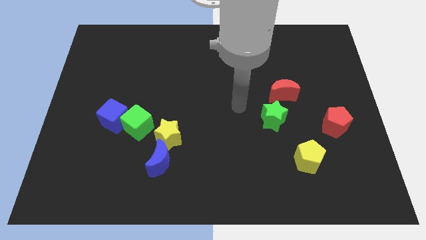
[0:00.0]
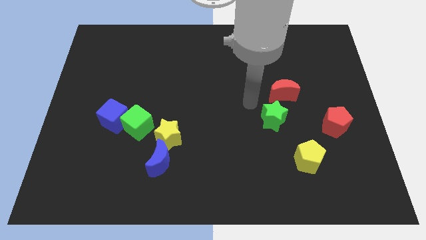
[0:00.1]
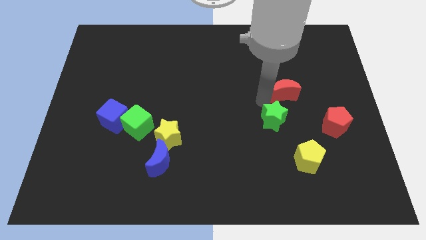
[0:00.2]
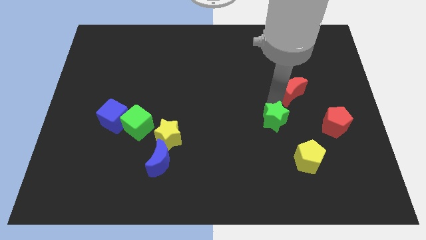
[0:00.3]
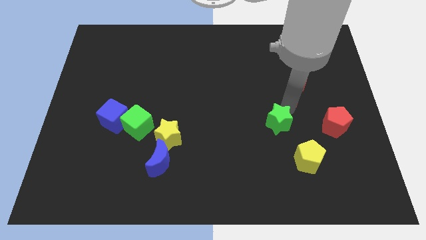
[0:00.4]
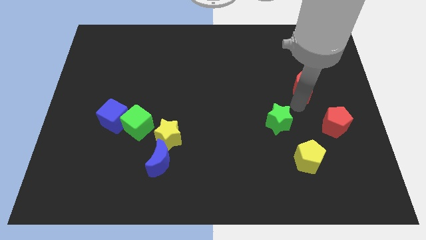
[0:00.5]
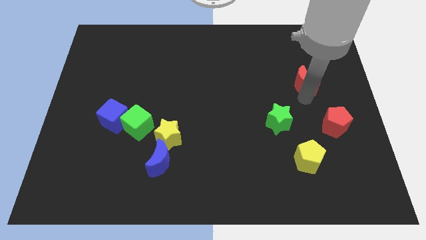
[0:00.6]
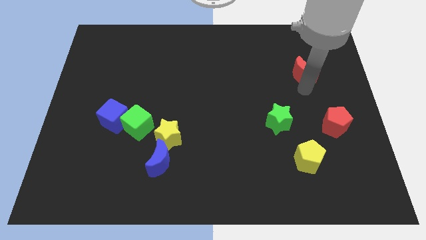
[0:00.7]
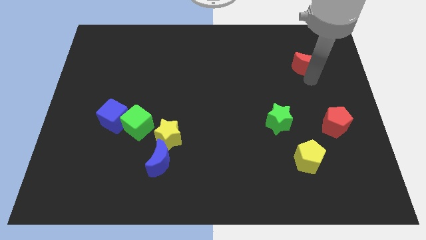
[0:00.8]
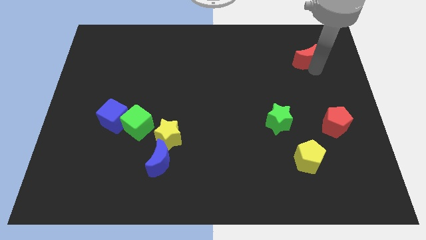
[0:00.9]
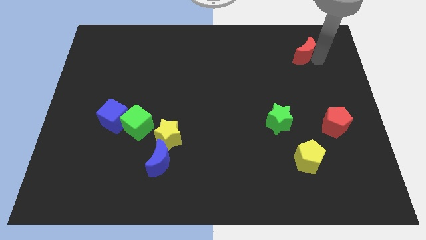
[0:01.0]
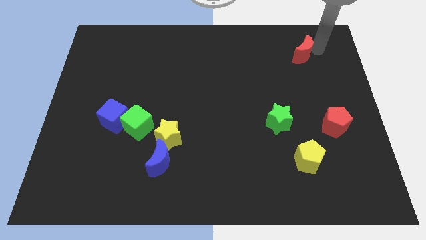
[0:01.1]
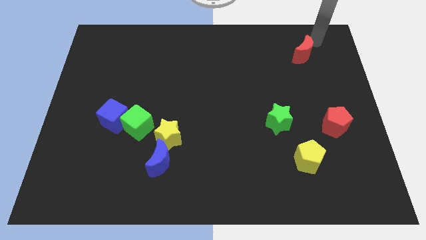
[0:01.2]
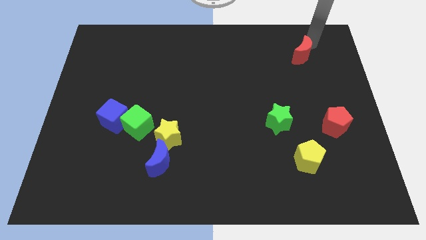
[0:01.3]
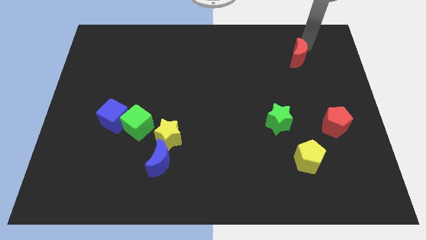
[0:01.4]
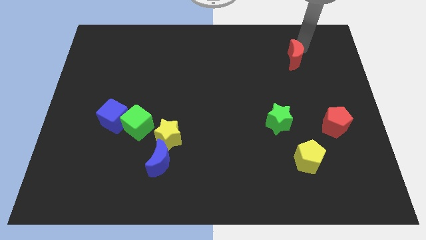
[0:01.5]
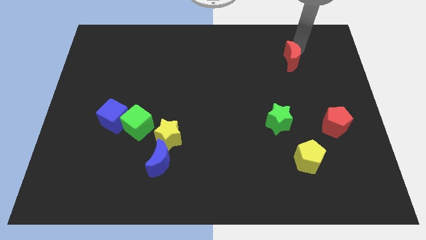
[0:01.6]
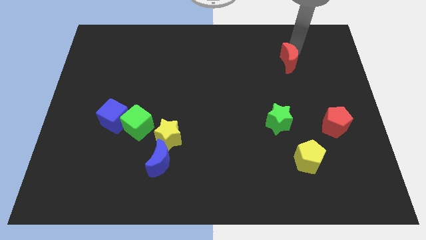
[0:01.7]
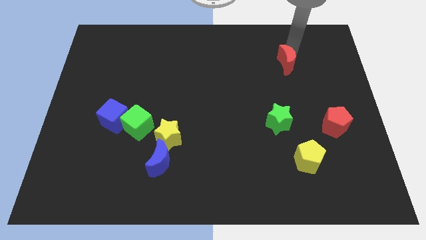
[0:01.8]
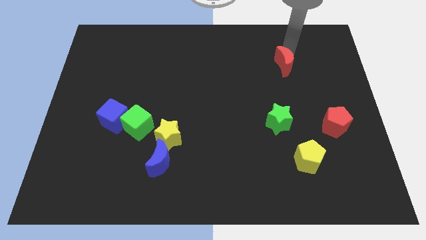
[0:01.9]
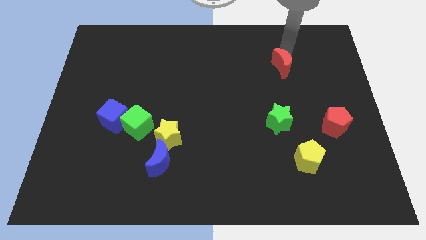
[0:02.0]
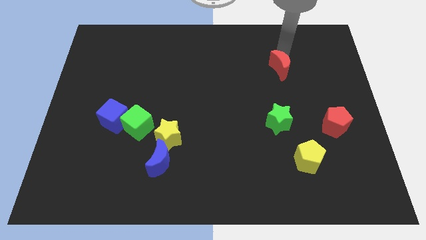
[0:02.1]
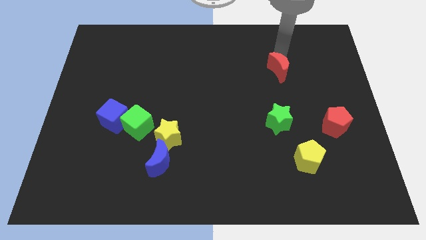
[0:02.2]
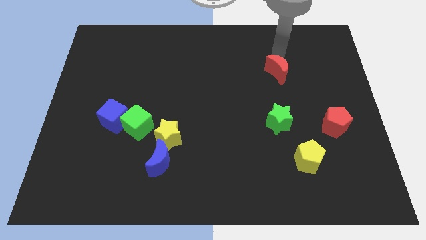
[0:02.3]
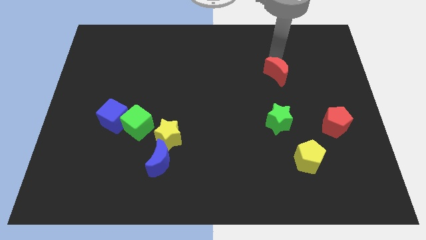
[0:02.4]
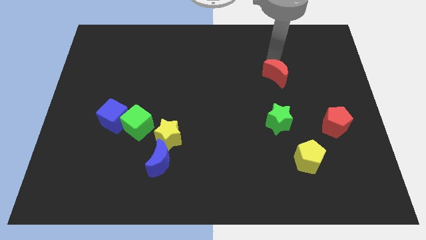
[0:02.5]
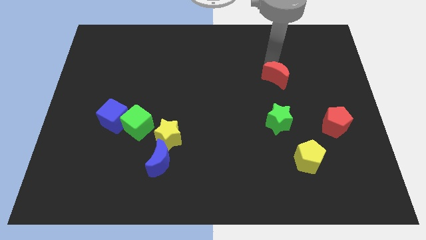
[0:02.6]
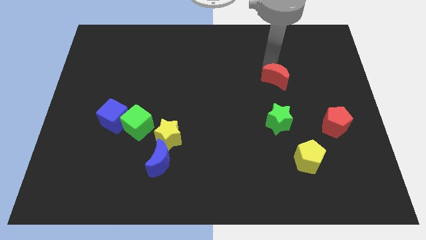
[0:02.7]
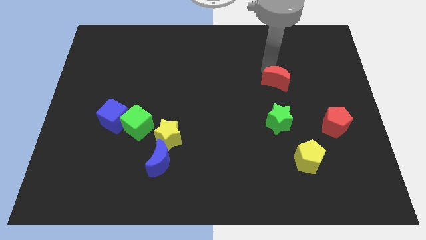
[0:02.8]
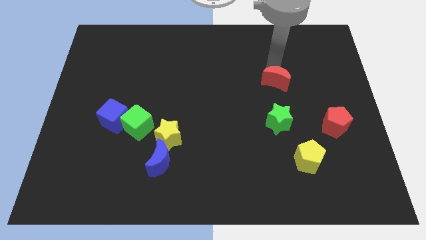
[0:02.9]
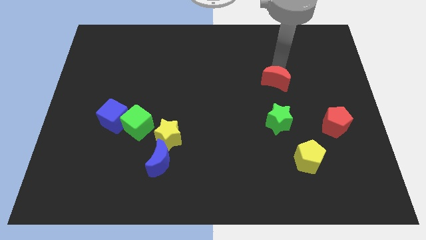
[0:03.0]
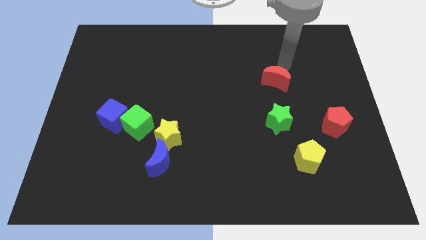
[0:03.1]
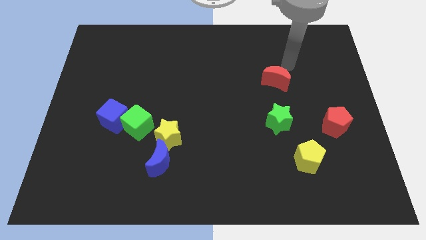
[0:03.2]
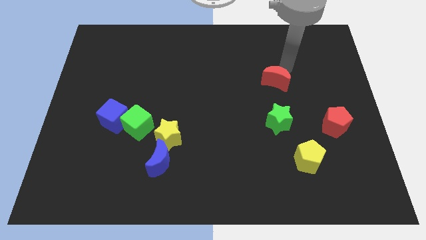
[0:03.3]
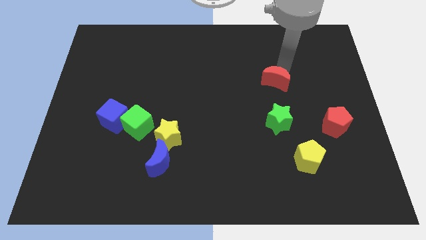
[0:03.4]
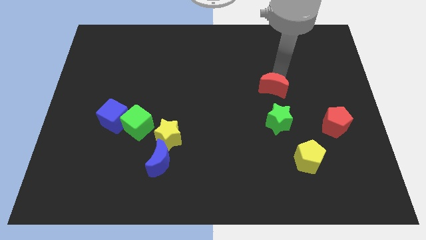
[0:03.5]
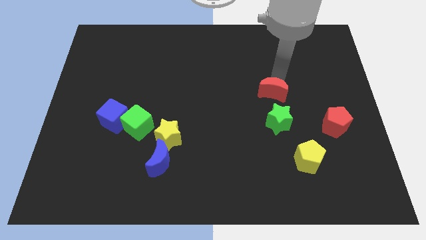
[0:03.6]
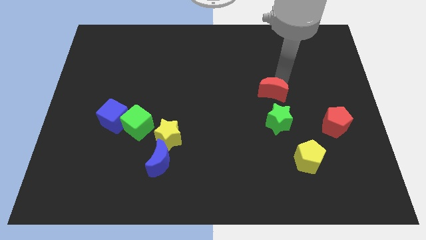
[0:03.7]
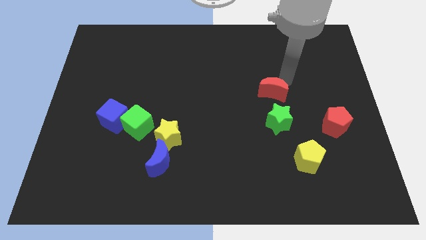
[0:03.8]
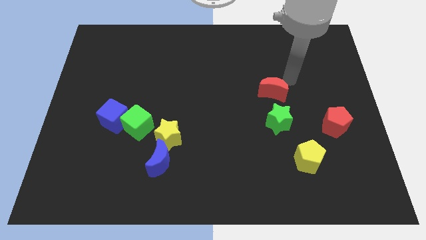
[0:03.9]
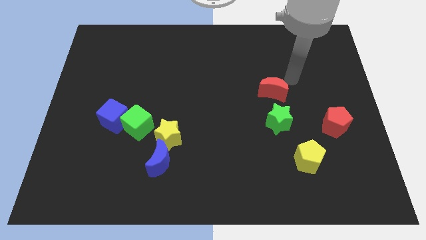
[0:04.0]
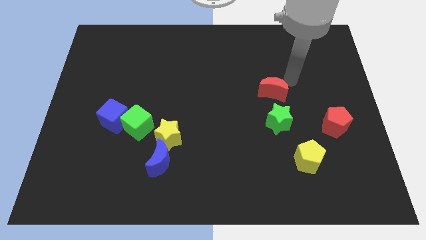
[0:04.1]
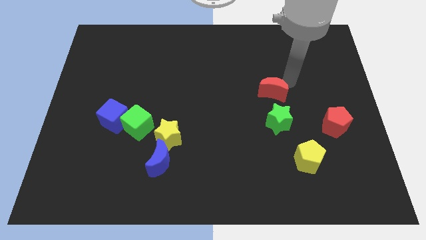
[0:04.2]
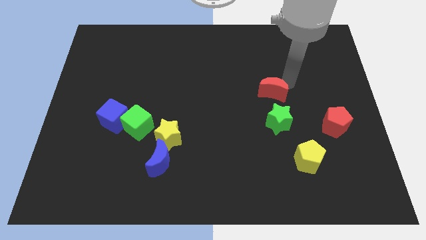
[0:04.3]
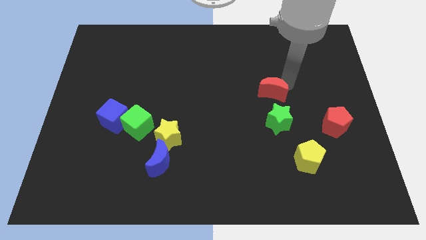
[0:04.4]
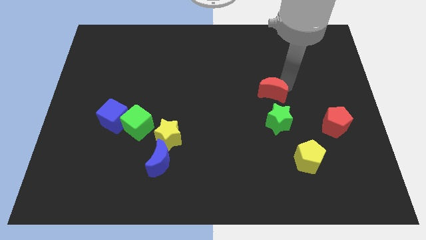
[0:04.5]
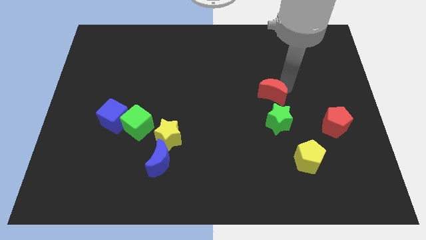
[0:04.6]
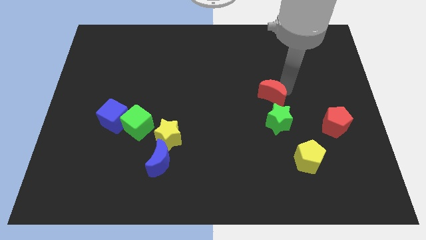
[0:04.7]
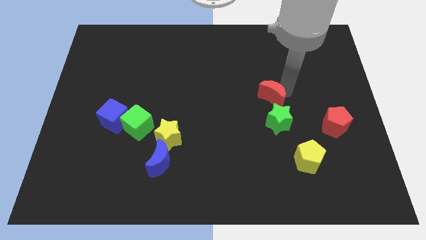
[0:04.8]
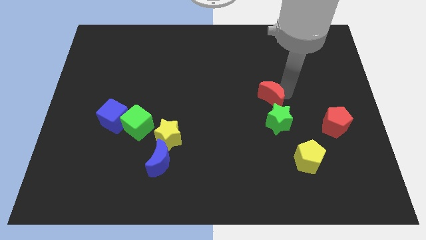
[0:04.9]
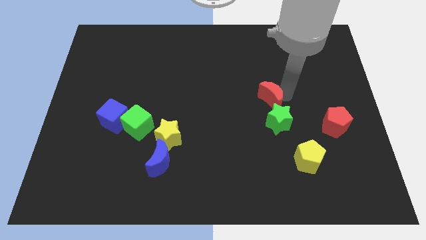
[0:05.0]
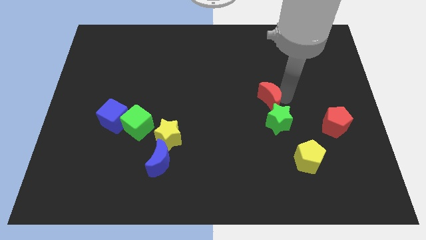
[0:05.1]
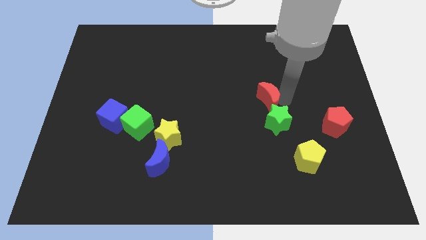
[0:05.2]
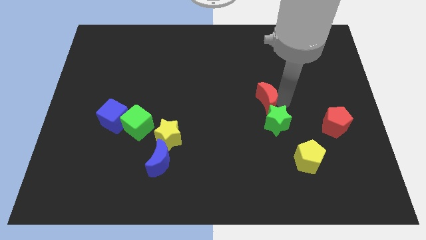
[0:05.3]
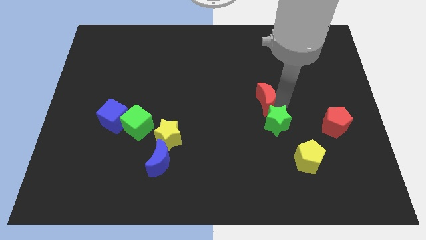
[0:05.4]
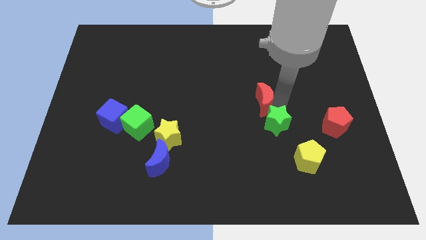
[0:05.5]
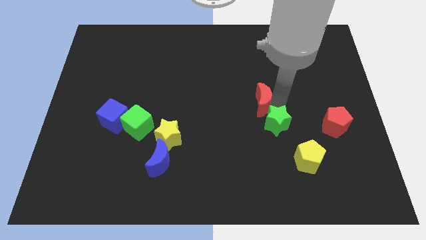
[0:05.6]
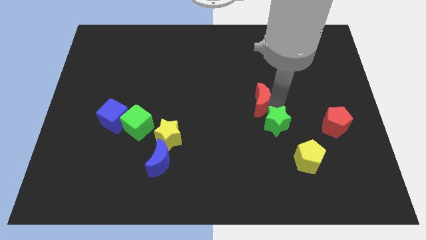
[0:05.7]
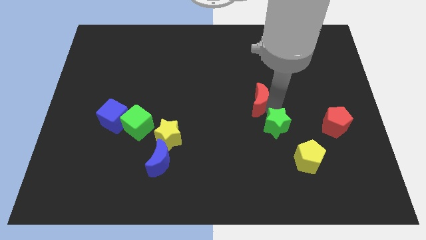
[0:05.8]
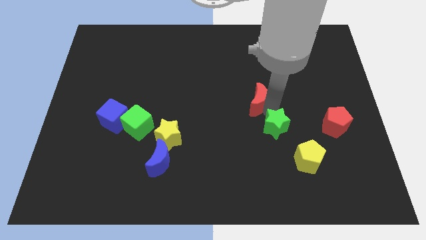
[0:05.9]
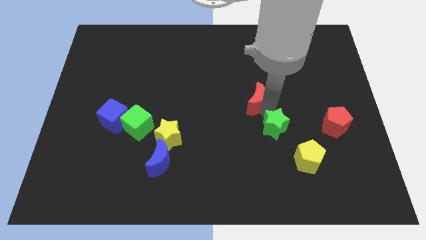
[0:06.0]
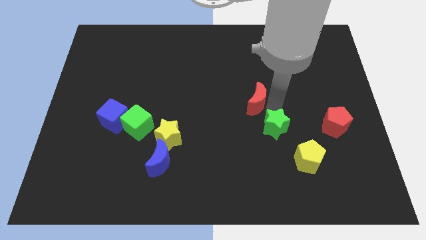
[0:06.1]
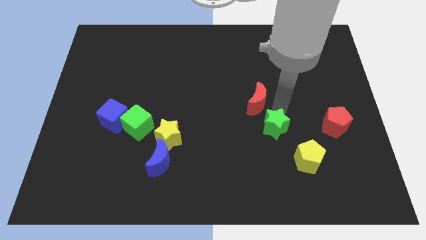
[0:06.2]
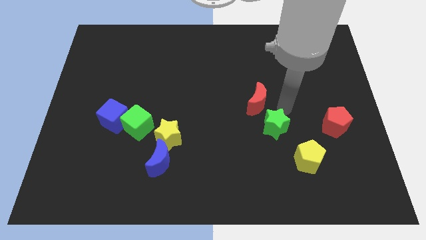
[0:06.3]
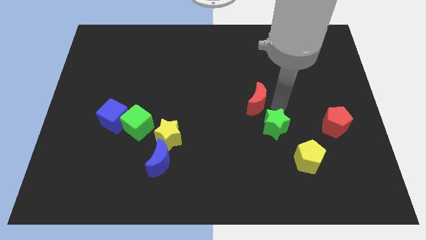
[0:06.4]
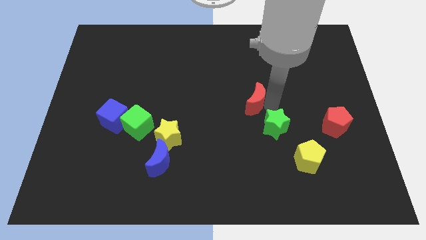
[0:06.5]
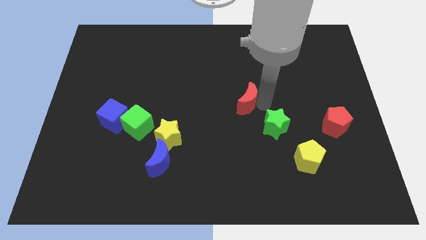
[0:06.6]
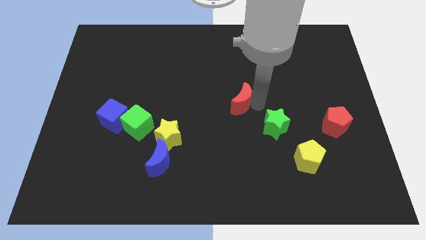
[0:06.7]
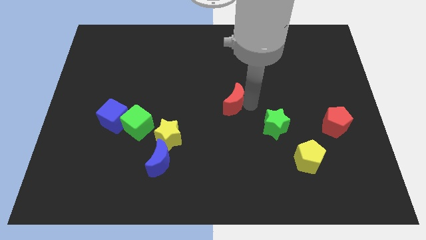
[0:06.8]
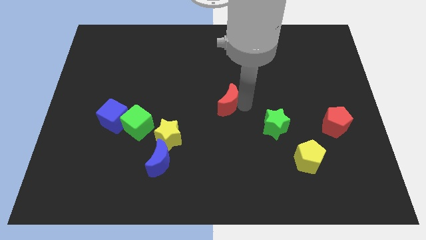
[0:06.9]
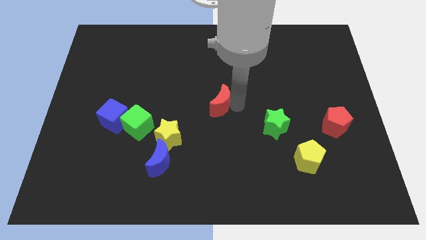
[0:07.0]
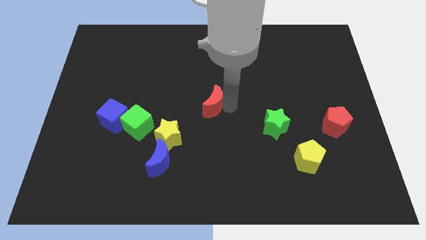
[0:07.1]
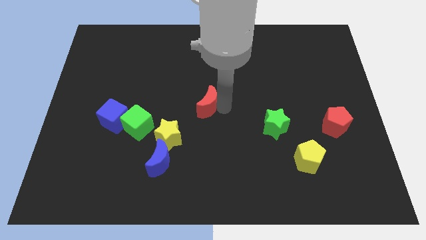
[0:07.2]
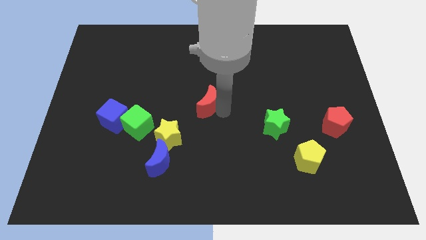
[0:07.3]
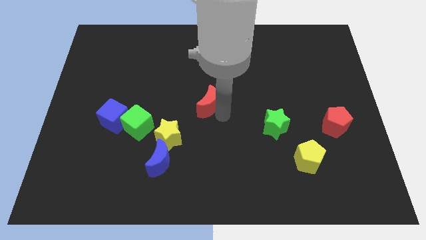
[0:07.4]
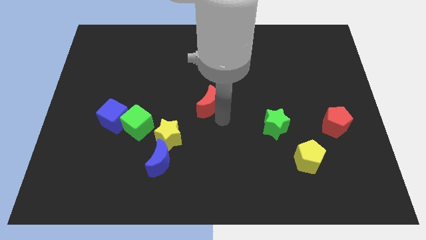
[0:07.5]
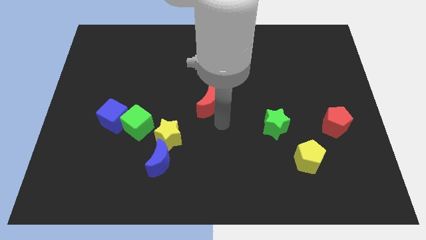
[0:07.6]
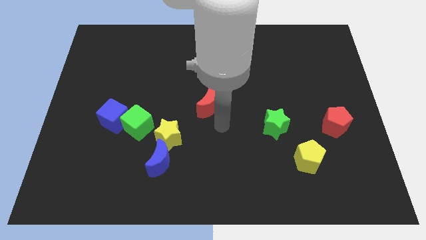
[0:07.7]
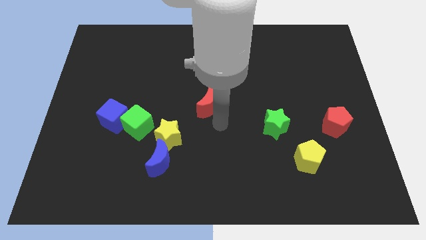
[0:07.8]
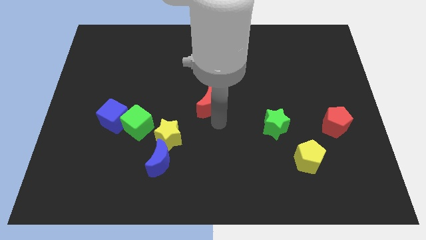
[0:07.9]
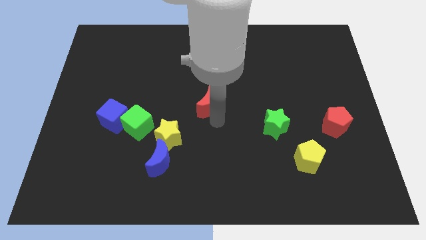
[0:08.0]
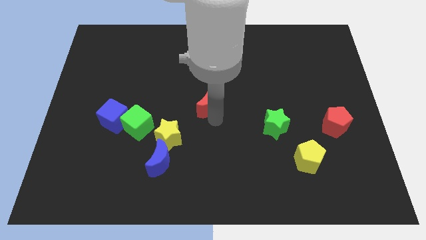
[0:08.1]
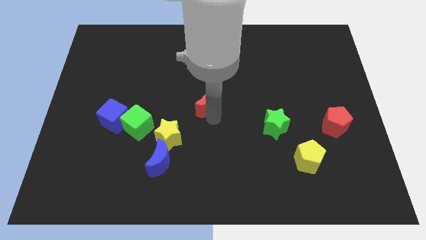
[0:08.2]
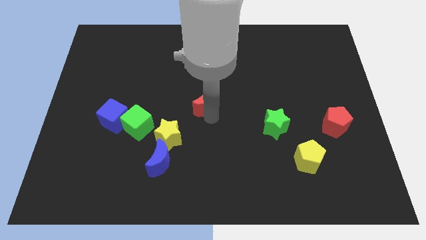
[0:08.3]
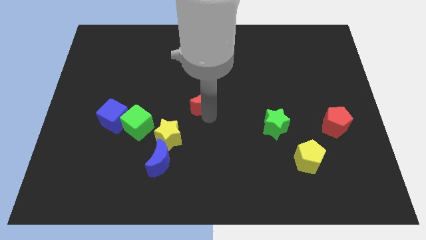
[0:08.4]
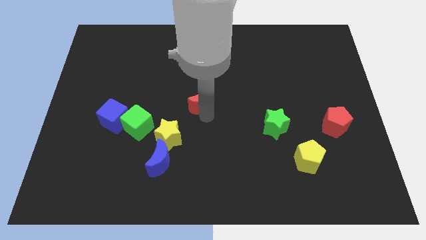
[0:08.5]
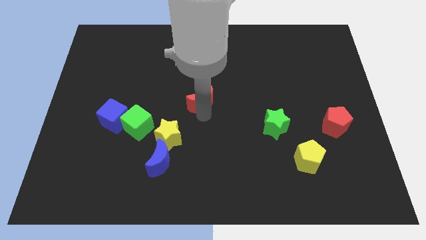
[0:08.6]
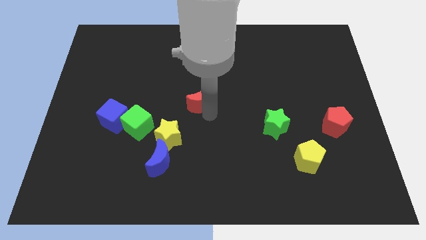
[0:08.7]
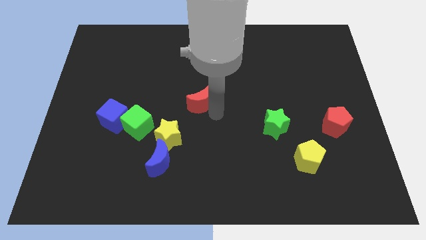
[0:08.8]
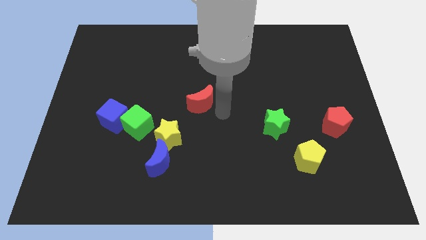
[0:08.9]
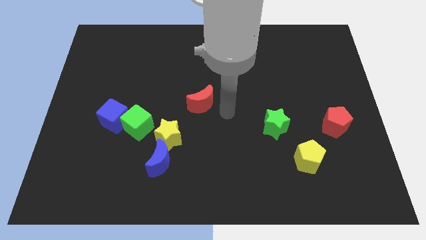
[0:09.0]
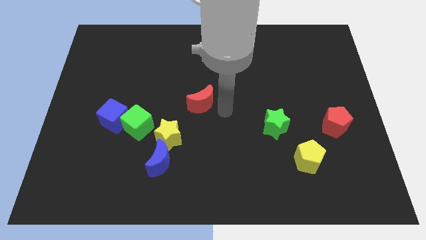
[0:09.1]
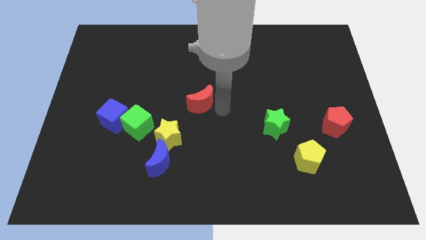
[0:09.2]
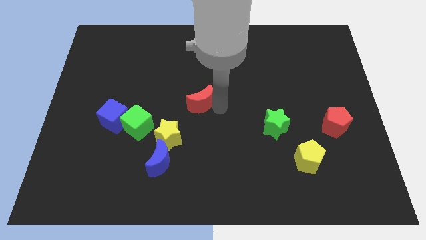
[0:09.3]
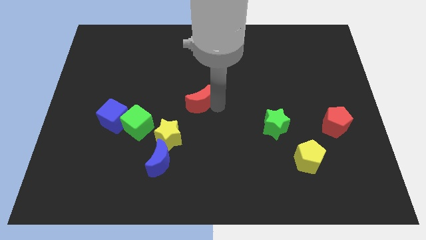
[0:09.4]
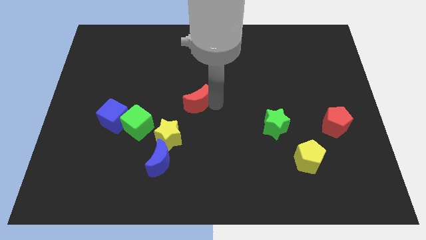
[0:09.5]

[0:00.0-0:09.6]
move the red moon left
